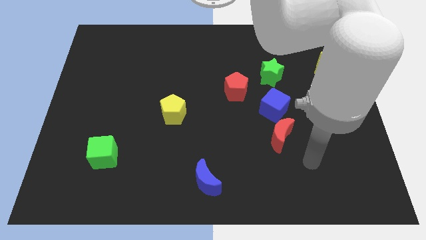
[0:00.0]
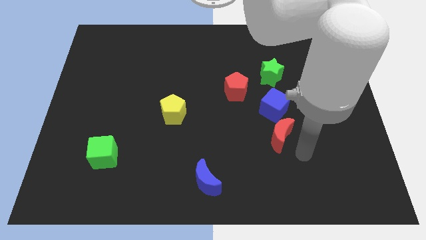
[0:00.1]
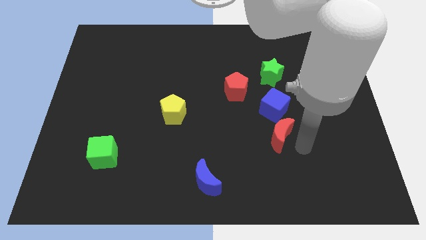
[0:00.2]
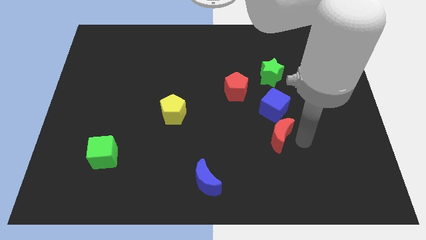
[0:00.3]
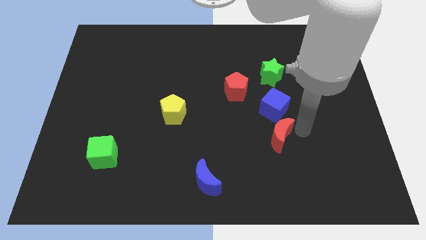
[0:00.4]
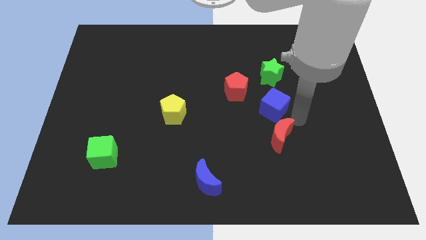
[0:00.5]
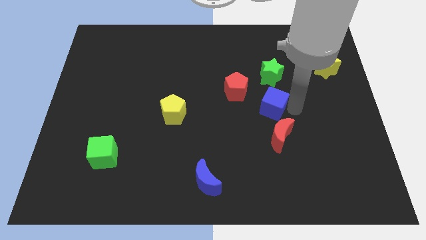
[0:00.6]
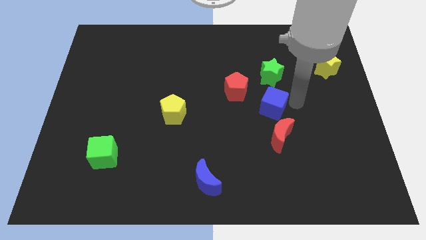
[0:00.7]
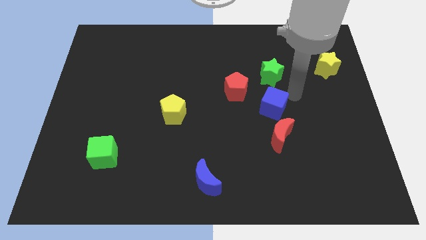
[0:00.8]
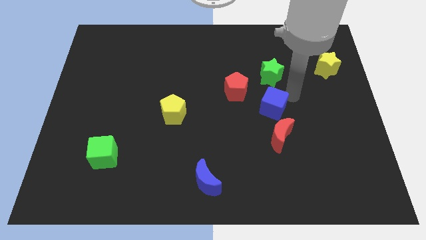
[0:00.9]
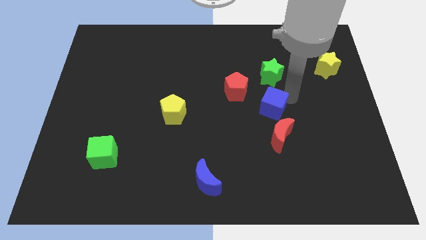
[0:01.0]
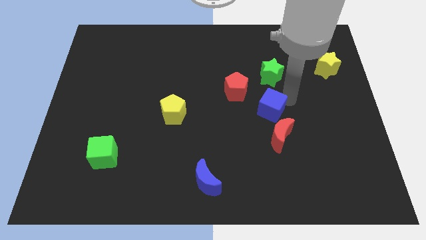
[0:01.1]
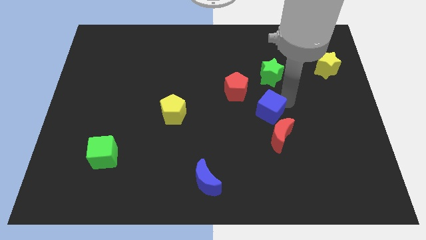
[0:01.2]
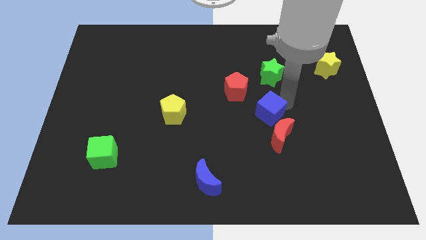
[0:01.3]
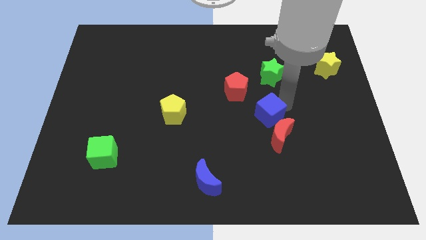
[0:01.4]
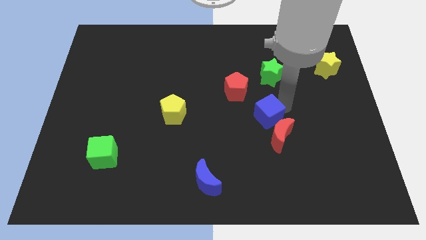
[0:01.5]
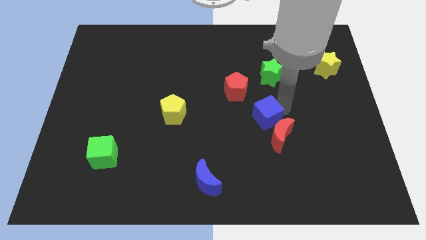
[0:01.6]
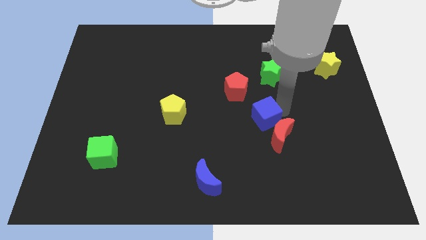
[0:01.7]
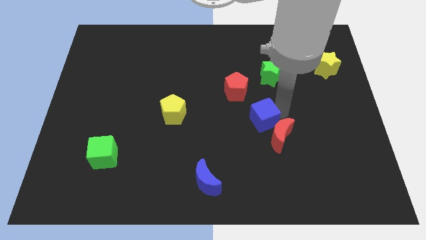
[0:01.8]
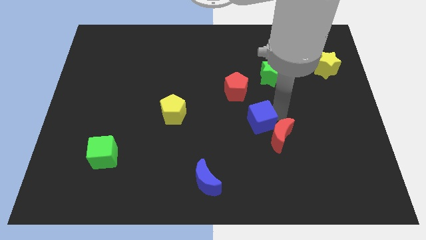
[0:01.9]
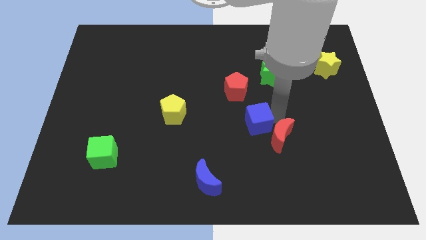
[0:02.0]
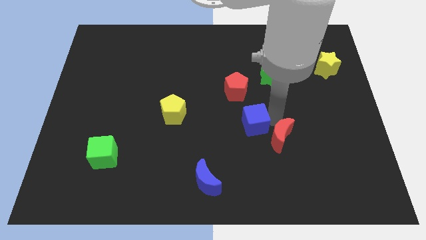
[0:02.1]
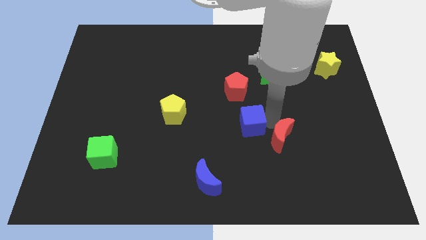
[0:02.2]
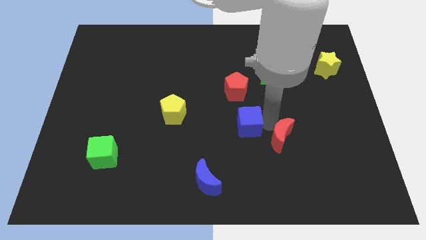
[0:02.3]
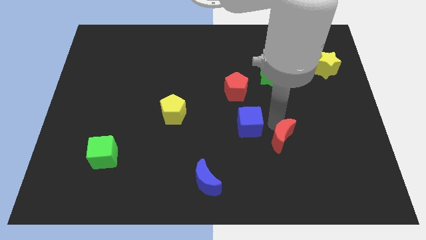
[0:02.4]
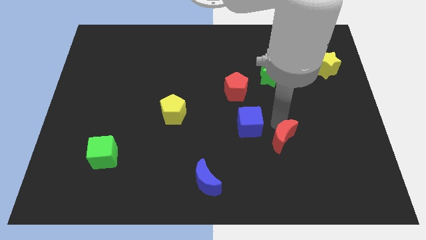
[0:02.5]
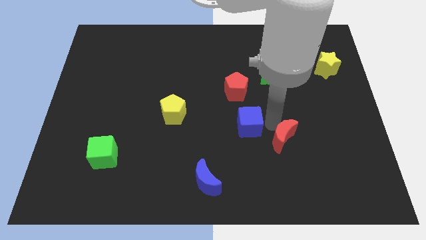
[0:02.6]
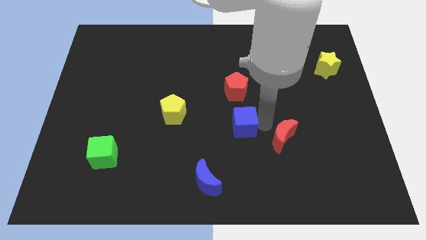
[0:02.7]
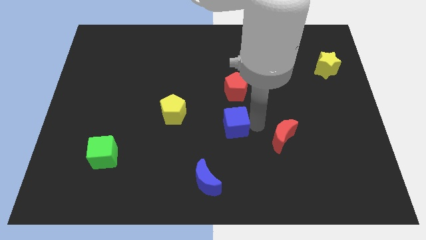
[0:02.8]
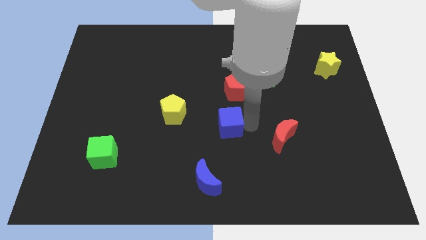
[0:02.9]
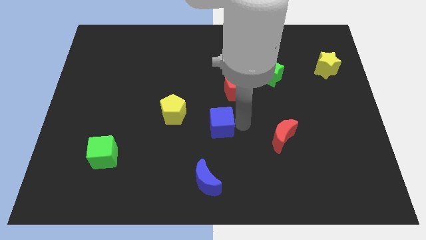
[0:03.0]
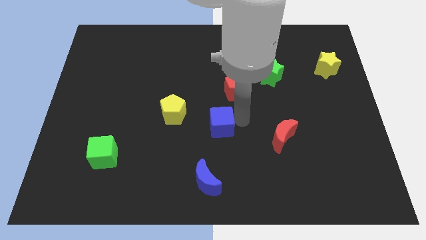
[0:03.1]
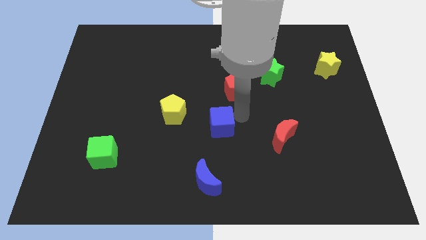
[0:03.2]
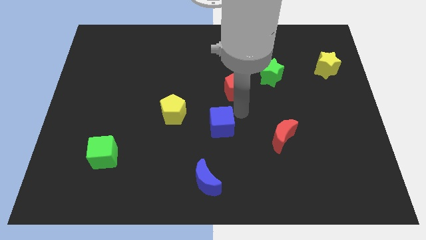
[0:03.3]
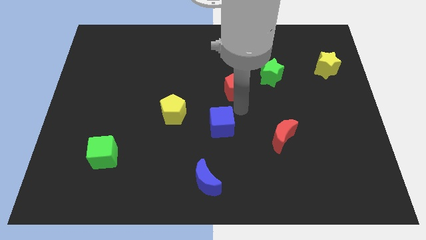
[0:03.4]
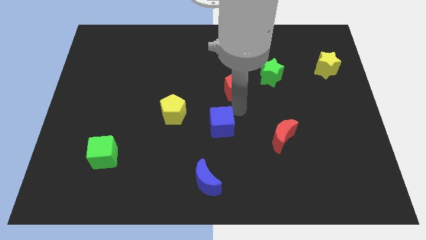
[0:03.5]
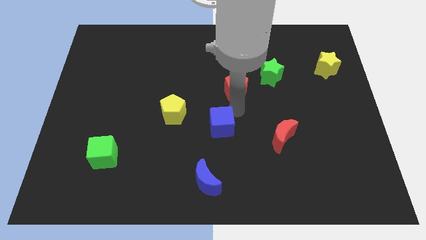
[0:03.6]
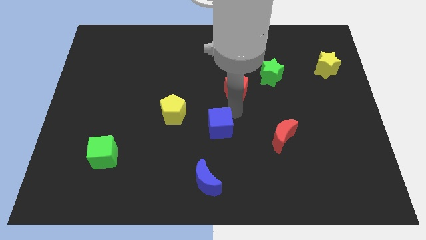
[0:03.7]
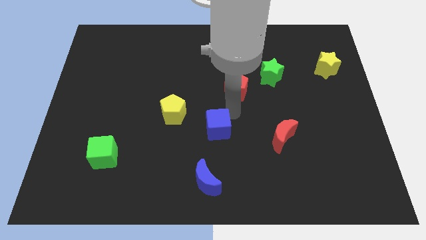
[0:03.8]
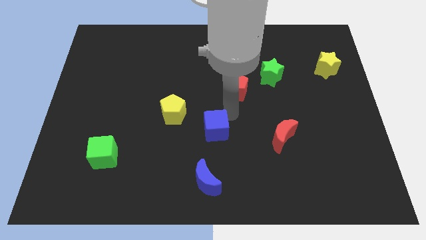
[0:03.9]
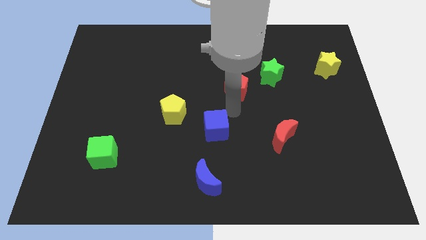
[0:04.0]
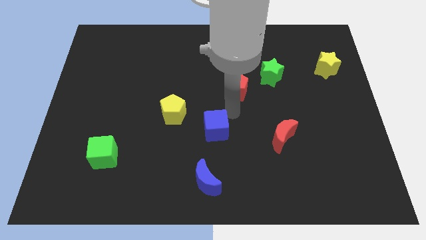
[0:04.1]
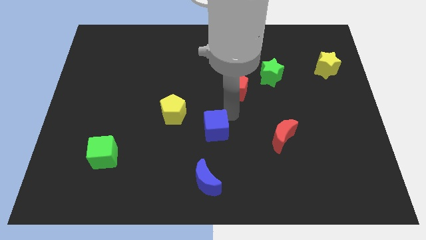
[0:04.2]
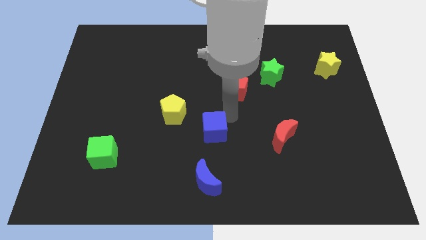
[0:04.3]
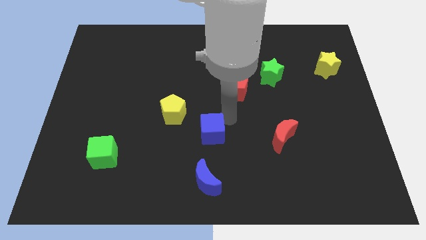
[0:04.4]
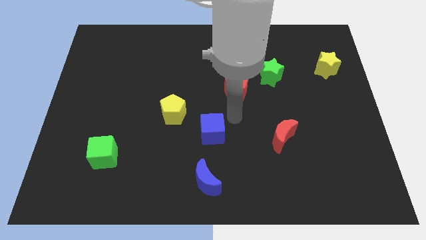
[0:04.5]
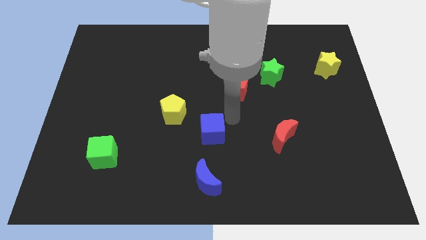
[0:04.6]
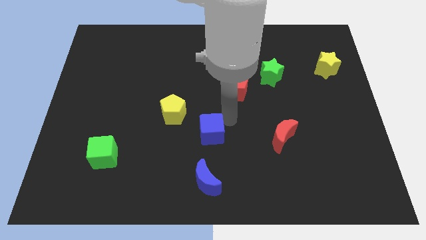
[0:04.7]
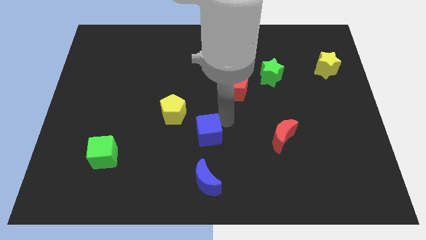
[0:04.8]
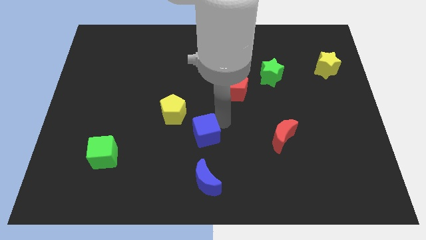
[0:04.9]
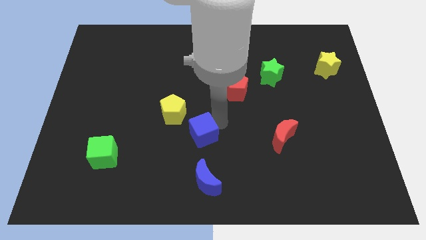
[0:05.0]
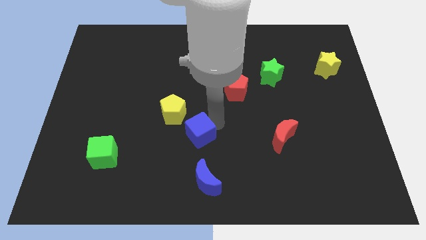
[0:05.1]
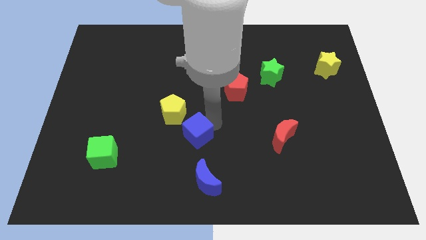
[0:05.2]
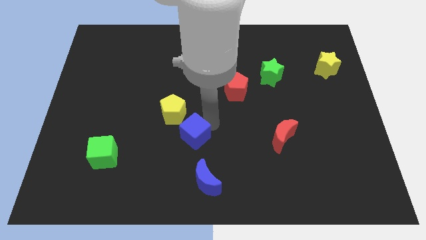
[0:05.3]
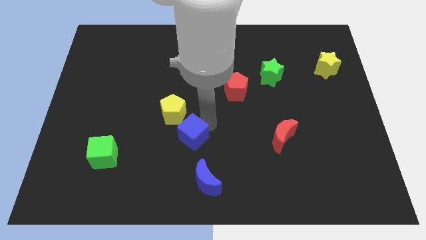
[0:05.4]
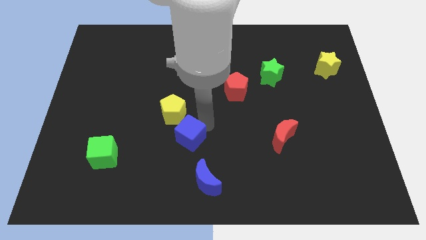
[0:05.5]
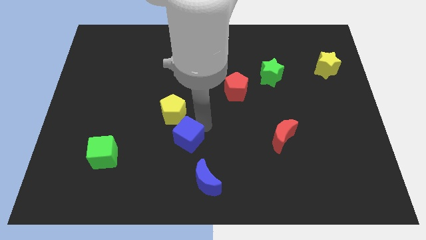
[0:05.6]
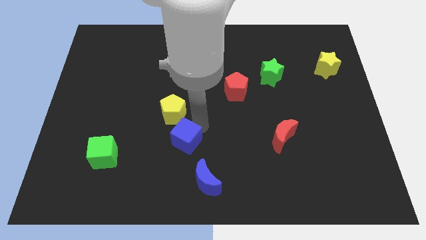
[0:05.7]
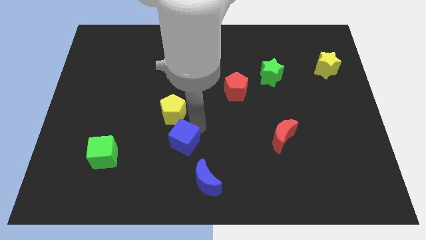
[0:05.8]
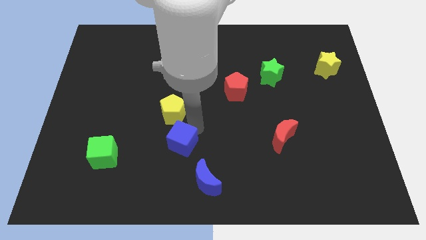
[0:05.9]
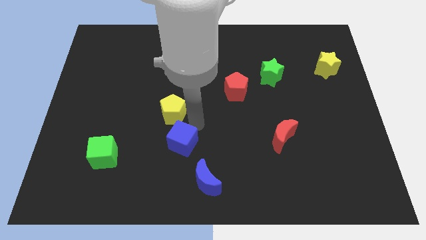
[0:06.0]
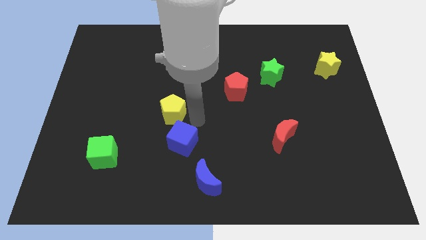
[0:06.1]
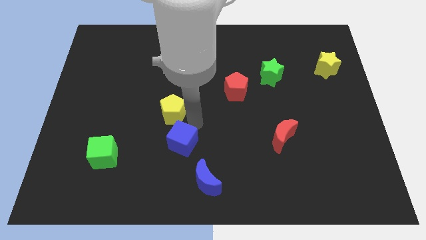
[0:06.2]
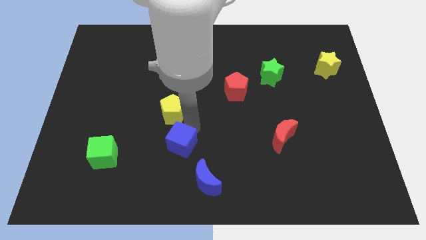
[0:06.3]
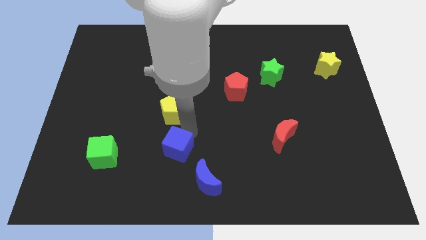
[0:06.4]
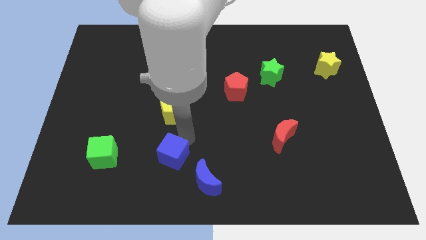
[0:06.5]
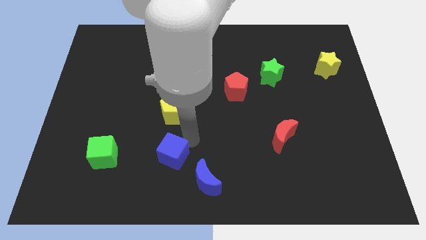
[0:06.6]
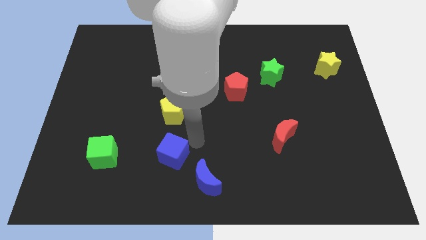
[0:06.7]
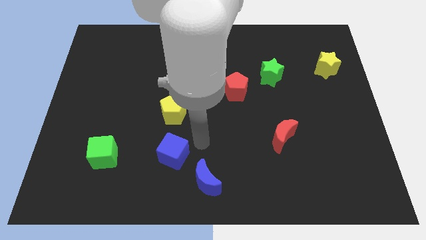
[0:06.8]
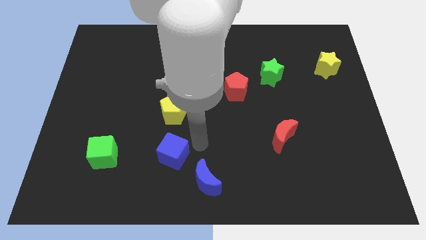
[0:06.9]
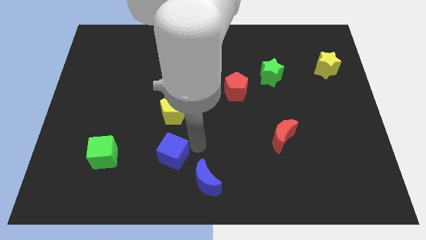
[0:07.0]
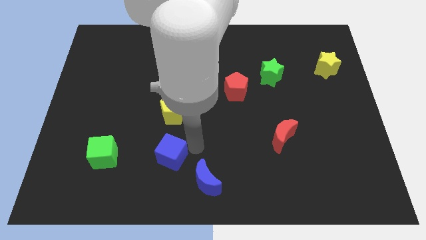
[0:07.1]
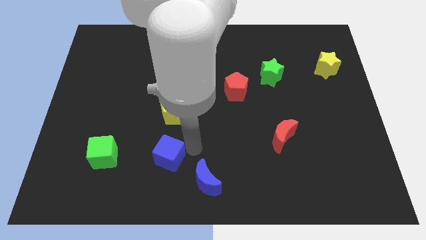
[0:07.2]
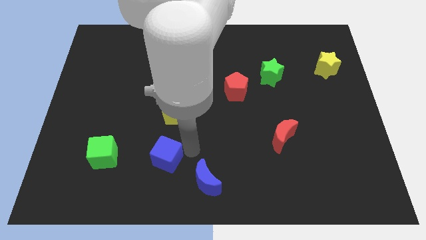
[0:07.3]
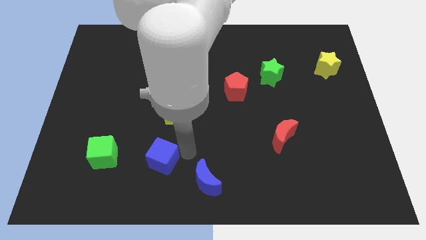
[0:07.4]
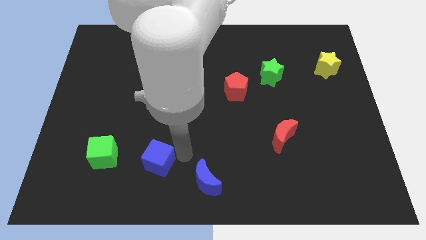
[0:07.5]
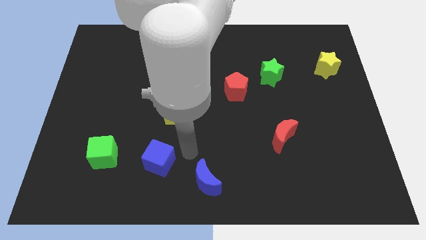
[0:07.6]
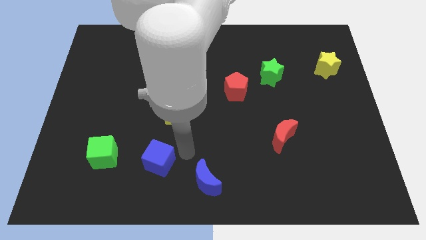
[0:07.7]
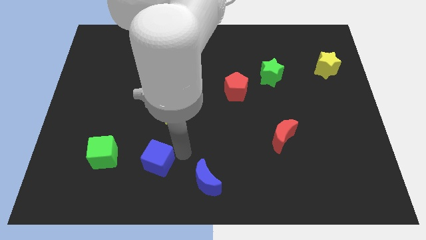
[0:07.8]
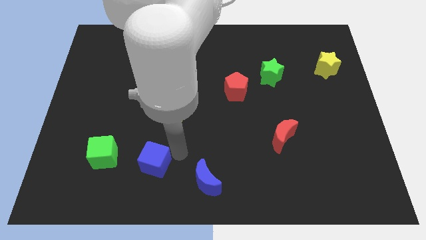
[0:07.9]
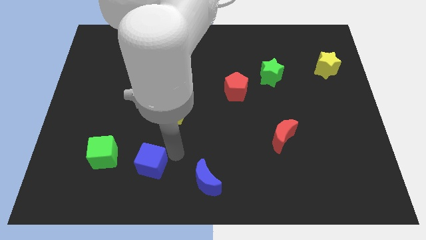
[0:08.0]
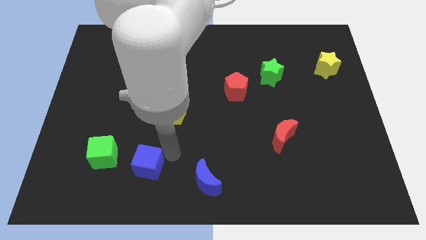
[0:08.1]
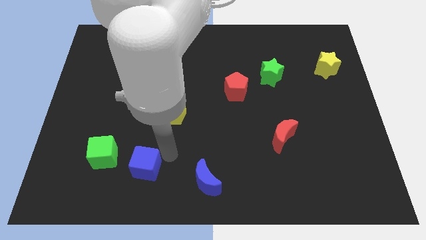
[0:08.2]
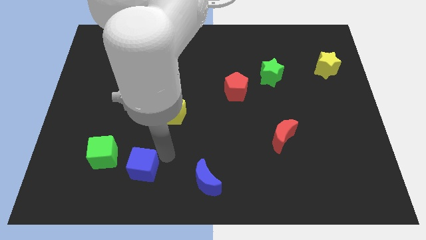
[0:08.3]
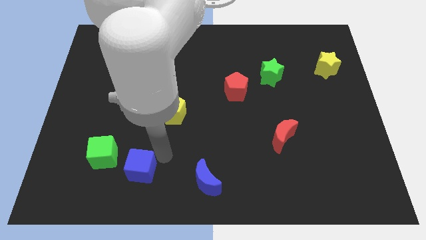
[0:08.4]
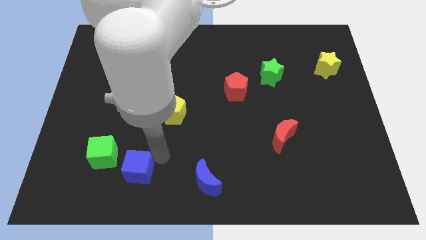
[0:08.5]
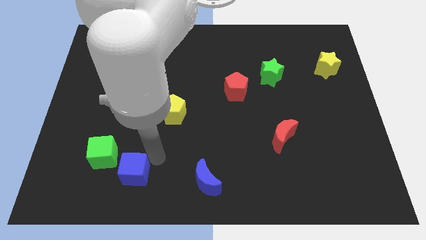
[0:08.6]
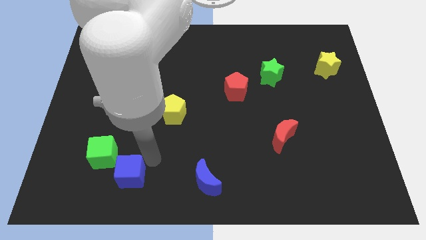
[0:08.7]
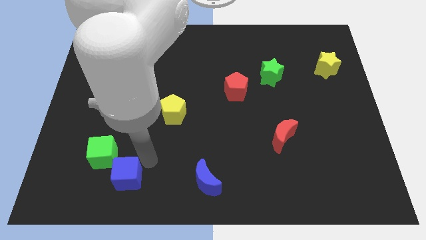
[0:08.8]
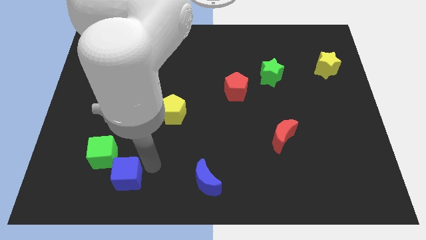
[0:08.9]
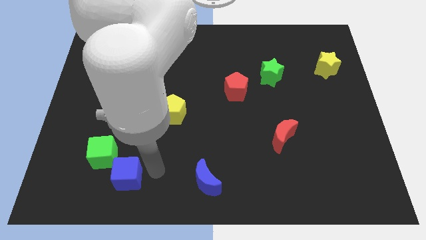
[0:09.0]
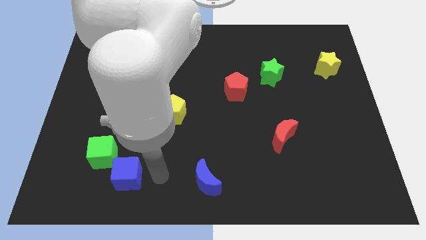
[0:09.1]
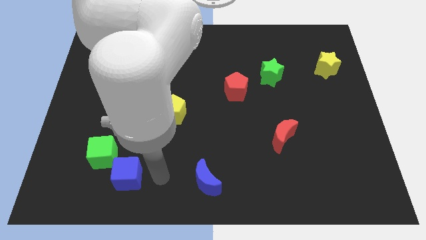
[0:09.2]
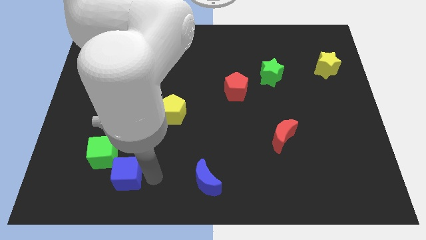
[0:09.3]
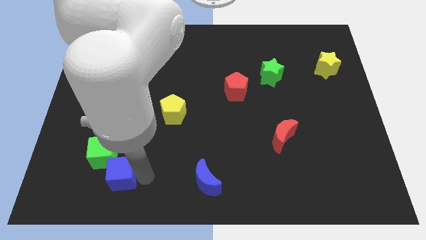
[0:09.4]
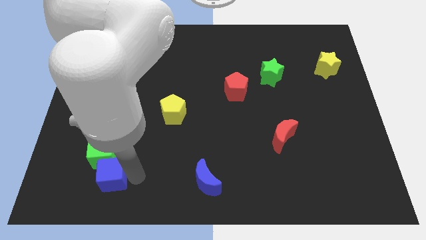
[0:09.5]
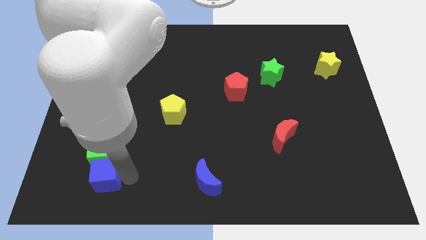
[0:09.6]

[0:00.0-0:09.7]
push the blue cube to the bottom left of the green cube
